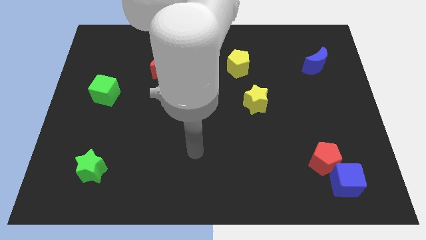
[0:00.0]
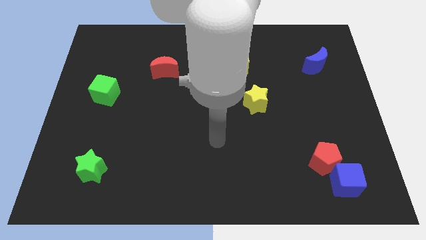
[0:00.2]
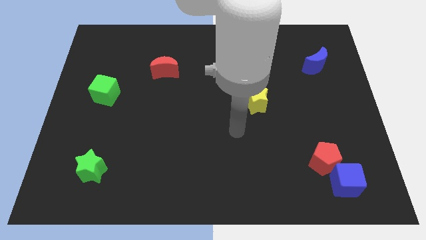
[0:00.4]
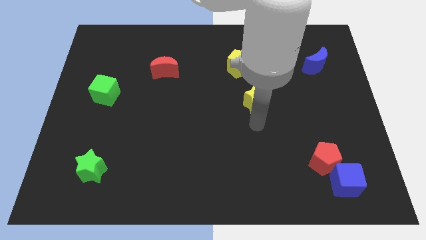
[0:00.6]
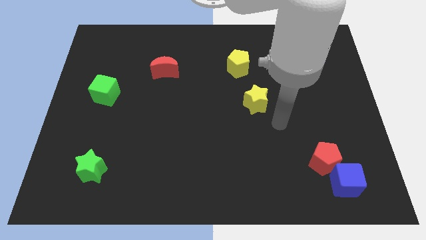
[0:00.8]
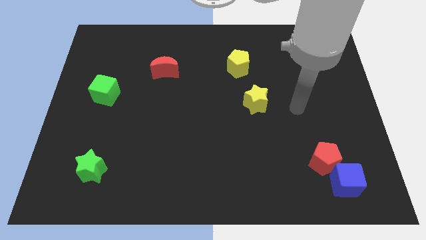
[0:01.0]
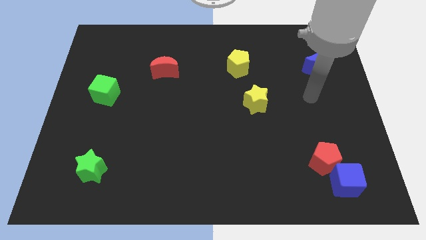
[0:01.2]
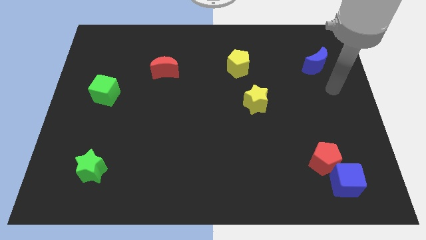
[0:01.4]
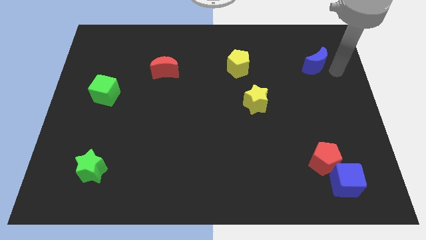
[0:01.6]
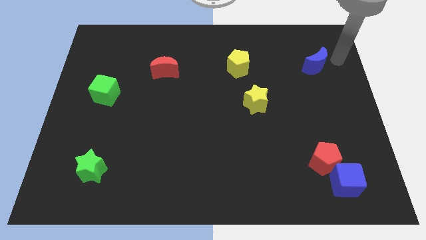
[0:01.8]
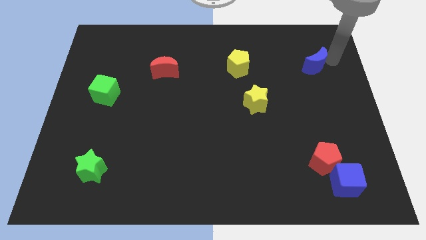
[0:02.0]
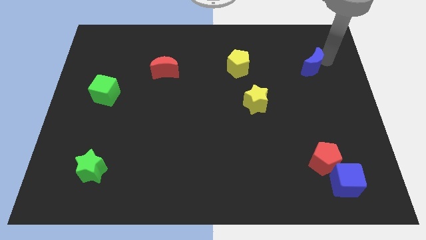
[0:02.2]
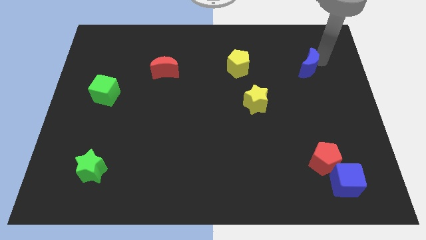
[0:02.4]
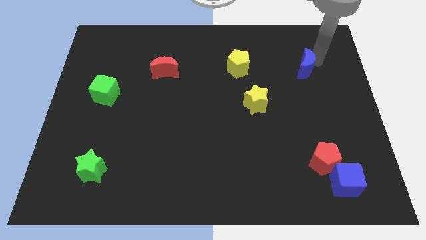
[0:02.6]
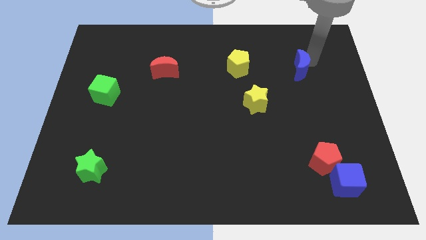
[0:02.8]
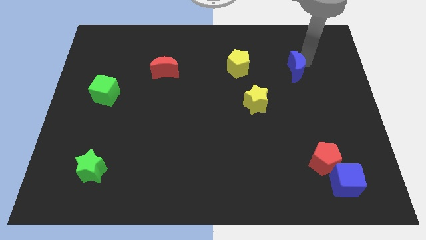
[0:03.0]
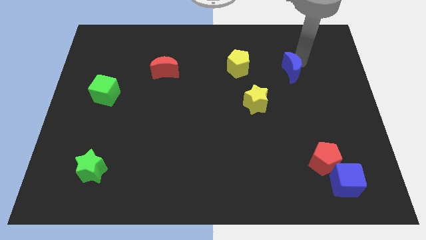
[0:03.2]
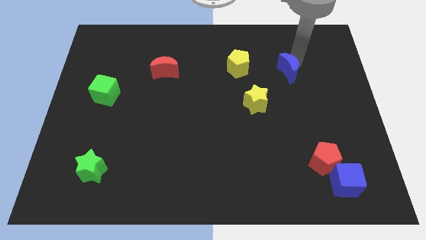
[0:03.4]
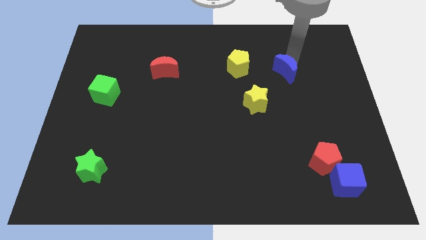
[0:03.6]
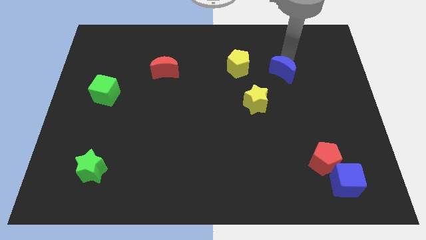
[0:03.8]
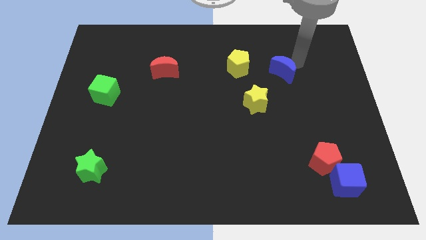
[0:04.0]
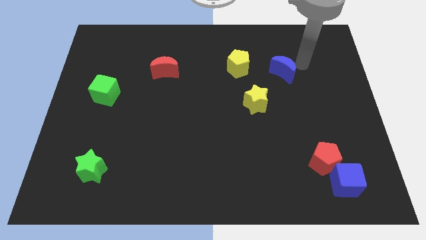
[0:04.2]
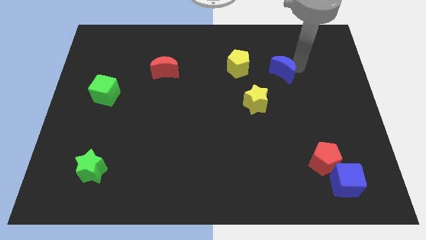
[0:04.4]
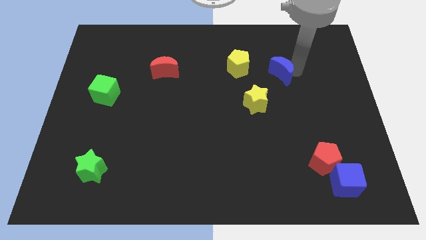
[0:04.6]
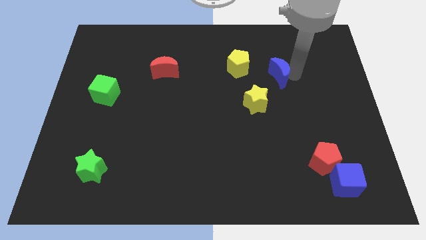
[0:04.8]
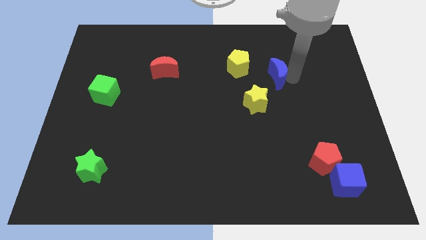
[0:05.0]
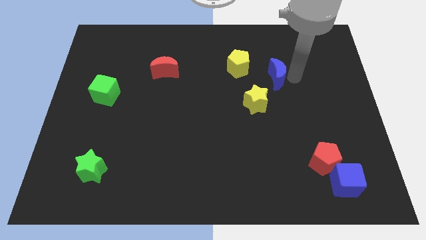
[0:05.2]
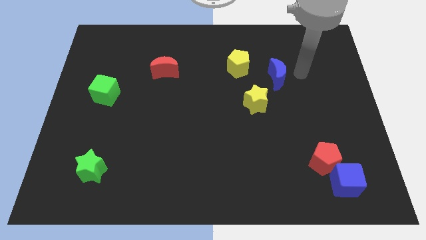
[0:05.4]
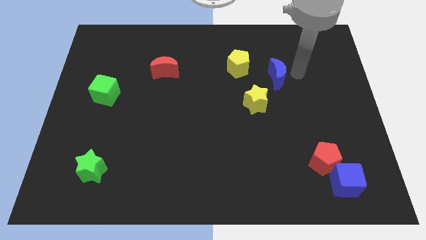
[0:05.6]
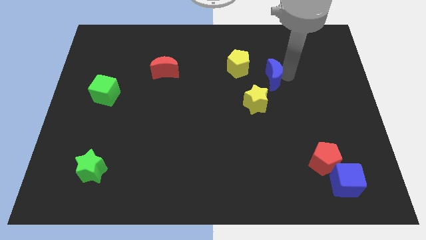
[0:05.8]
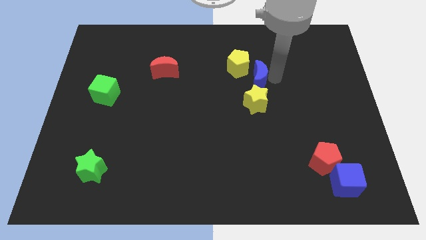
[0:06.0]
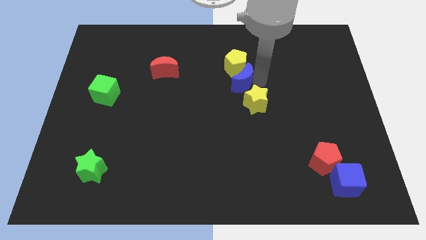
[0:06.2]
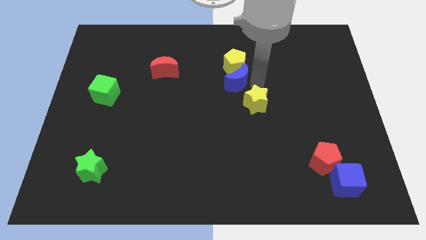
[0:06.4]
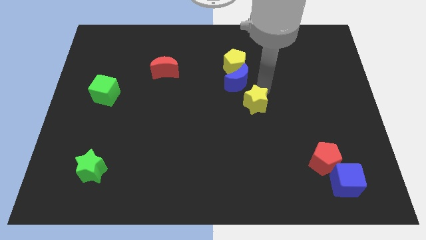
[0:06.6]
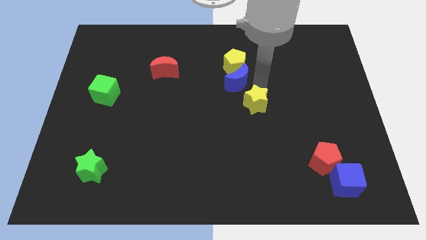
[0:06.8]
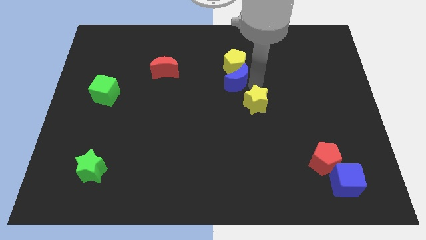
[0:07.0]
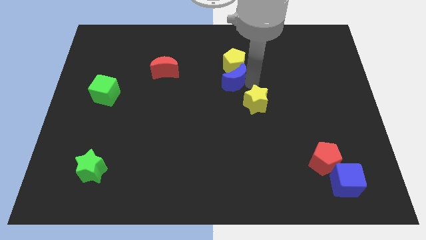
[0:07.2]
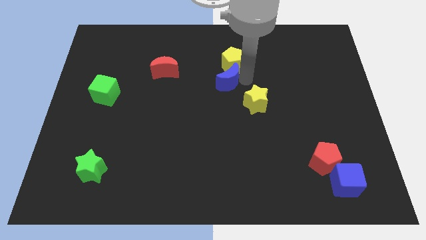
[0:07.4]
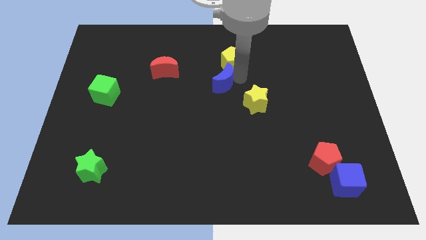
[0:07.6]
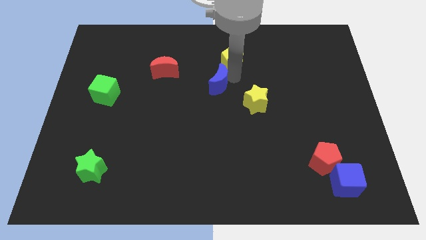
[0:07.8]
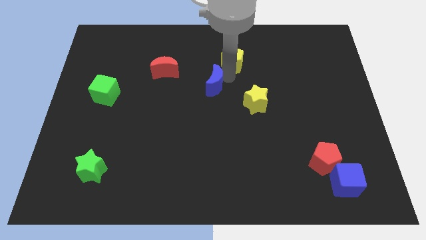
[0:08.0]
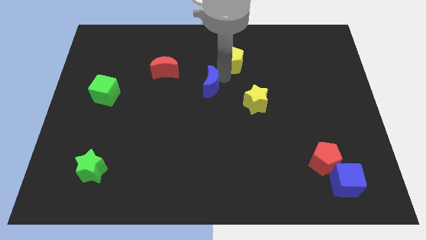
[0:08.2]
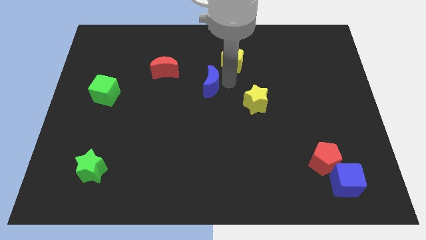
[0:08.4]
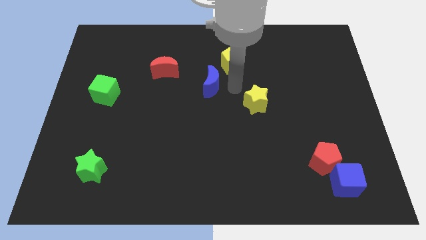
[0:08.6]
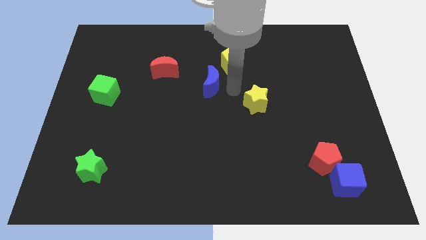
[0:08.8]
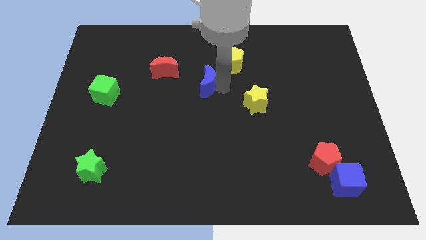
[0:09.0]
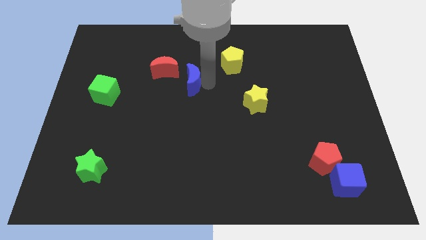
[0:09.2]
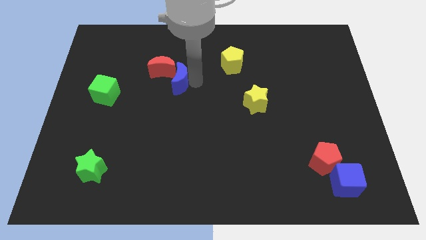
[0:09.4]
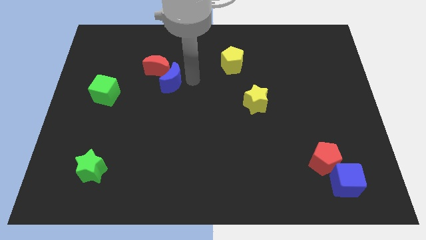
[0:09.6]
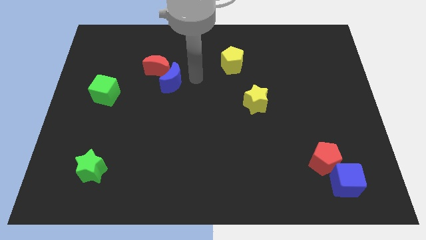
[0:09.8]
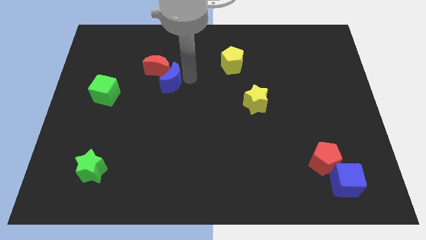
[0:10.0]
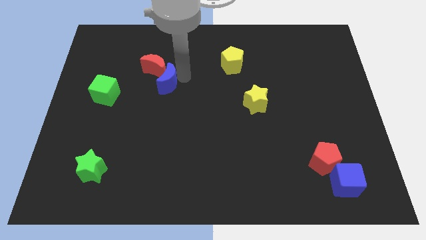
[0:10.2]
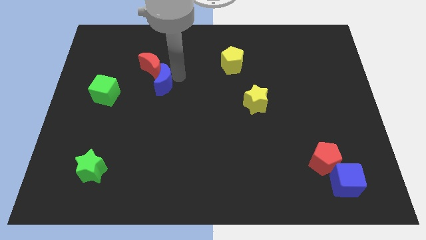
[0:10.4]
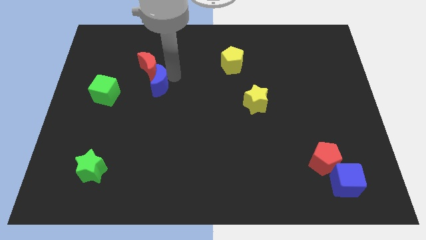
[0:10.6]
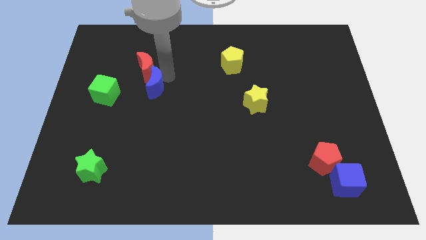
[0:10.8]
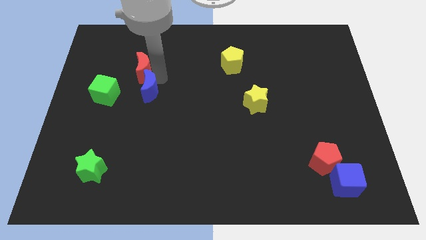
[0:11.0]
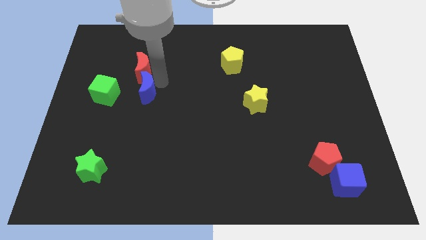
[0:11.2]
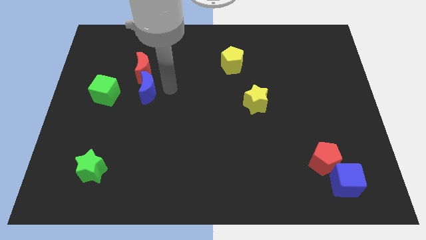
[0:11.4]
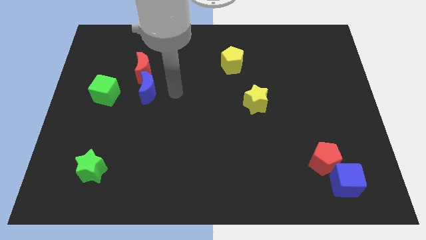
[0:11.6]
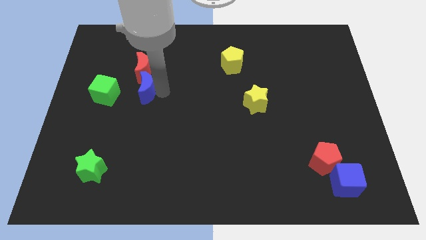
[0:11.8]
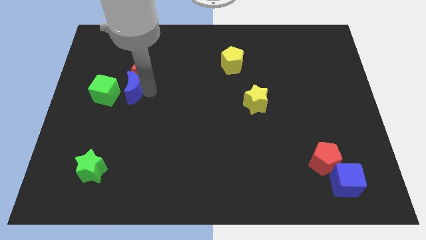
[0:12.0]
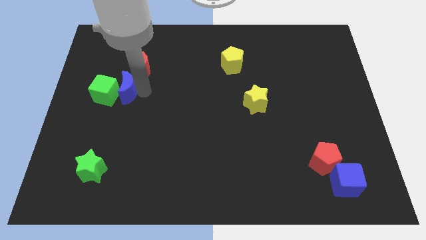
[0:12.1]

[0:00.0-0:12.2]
push the blue moon next to the green cube
